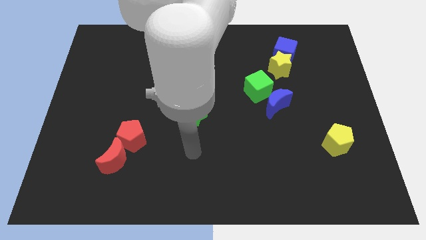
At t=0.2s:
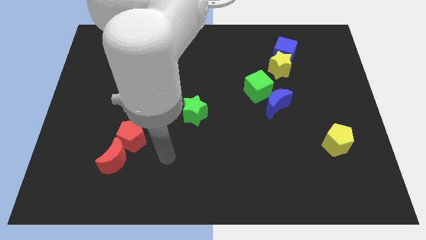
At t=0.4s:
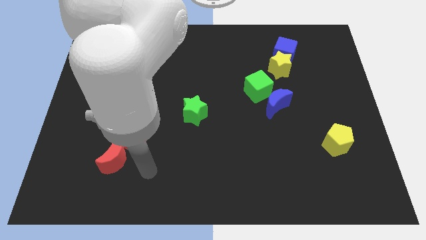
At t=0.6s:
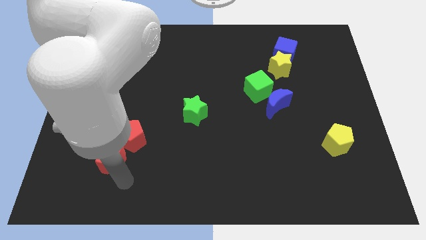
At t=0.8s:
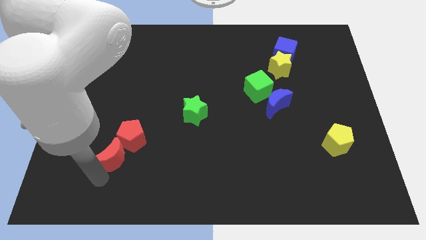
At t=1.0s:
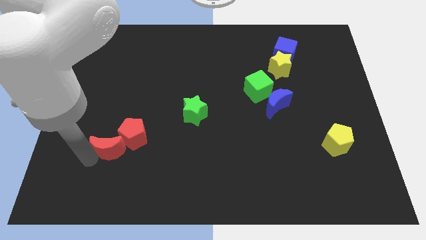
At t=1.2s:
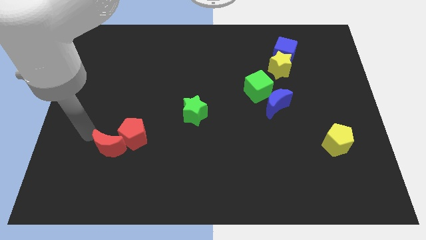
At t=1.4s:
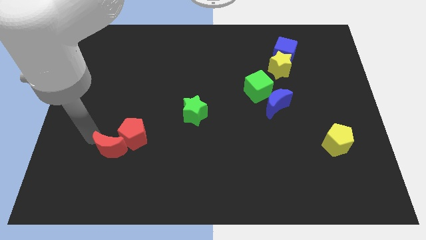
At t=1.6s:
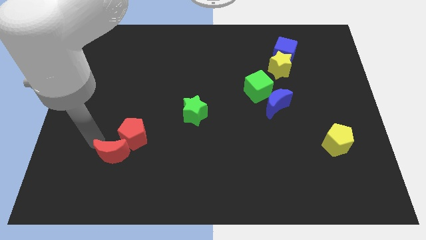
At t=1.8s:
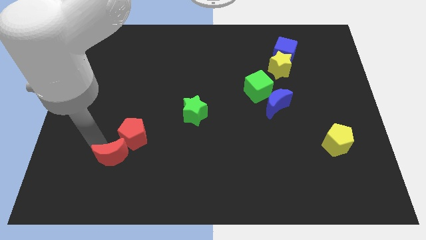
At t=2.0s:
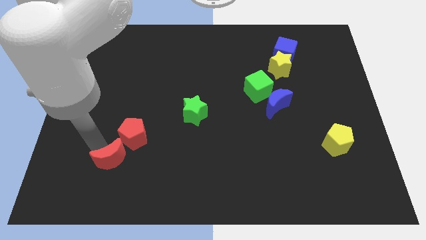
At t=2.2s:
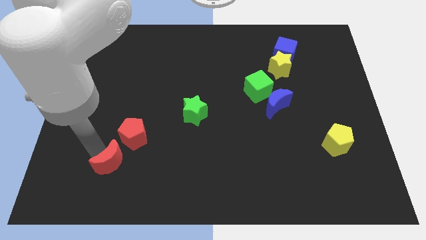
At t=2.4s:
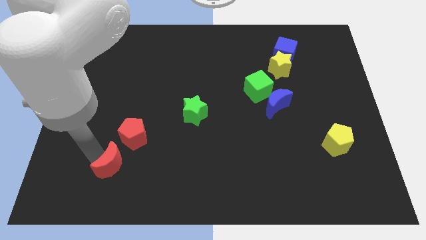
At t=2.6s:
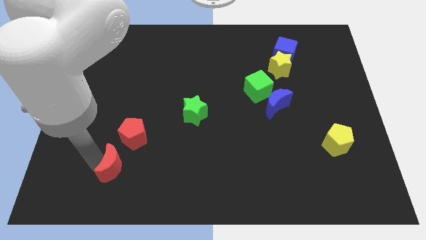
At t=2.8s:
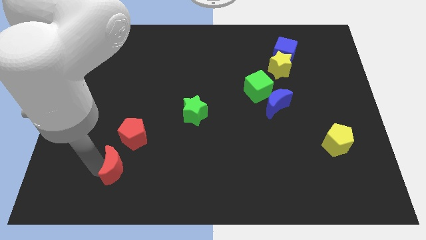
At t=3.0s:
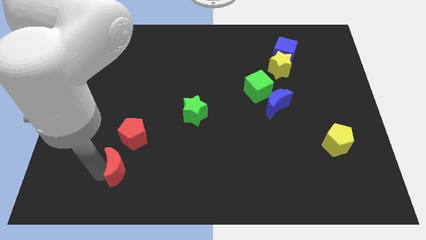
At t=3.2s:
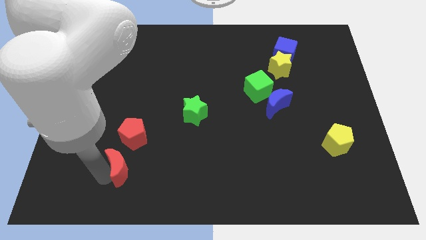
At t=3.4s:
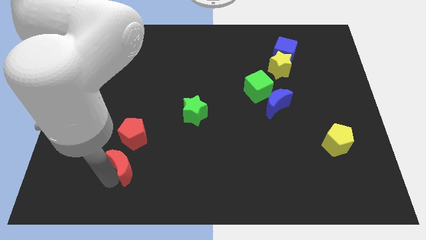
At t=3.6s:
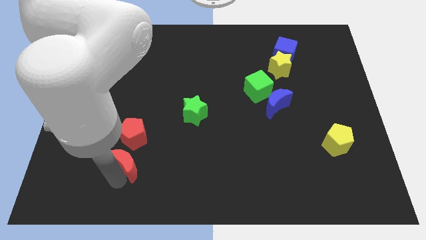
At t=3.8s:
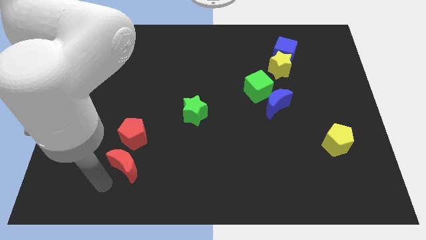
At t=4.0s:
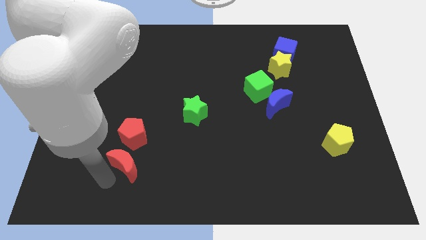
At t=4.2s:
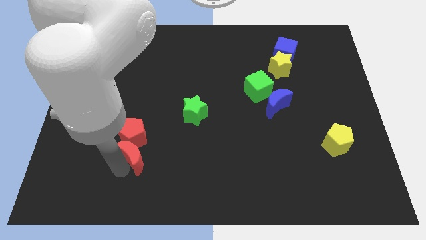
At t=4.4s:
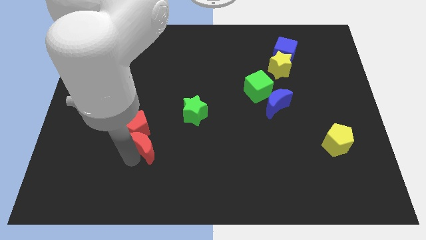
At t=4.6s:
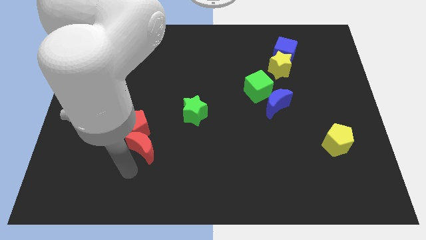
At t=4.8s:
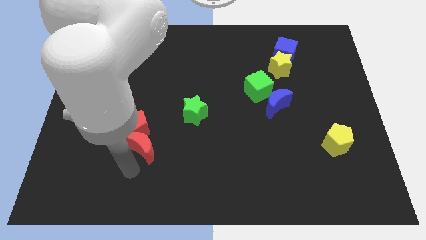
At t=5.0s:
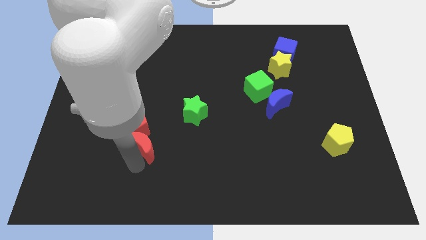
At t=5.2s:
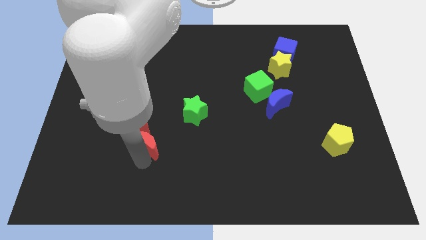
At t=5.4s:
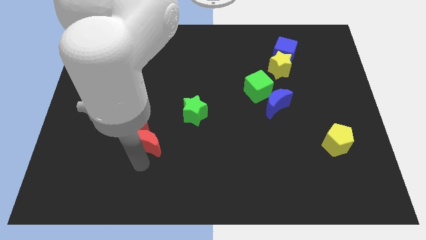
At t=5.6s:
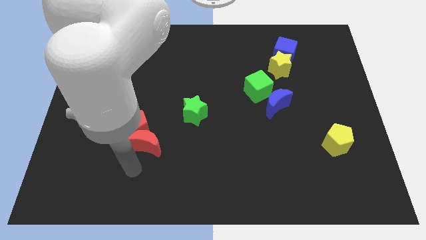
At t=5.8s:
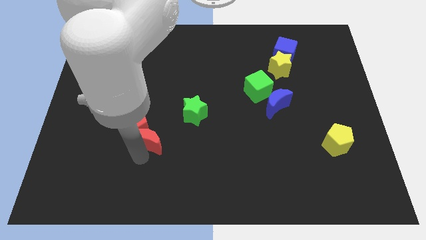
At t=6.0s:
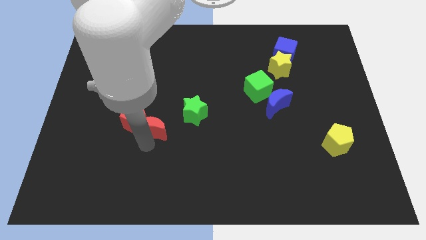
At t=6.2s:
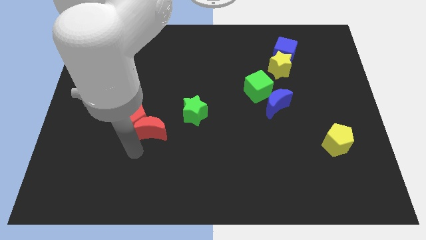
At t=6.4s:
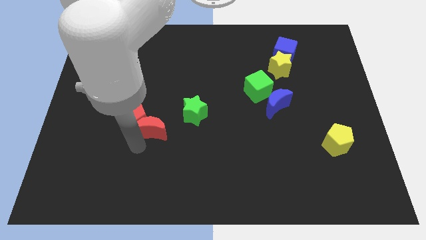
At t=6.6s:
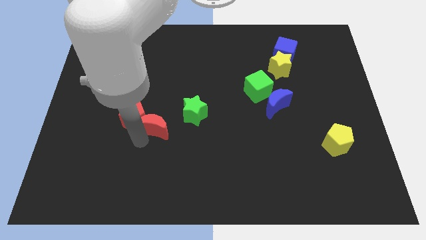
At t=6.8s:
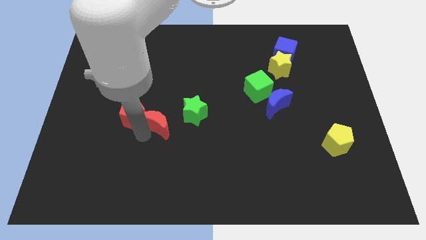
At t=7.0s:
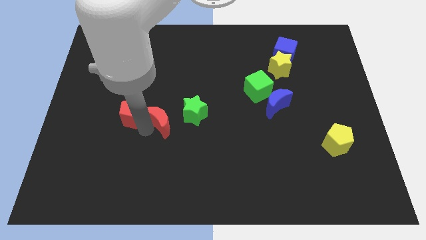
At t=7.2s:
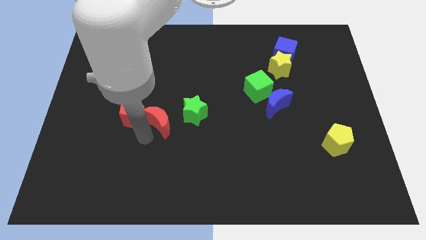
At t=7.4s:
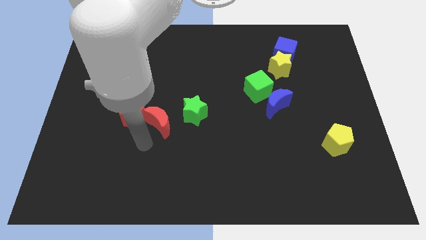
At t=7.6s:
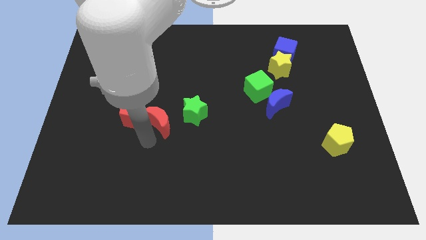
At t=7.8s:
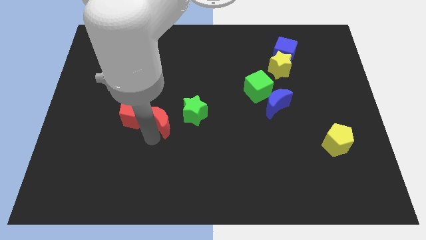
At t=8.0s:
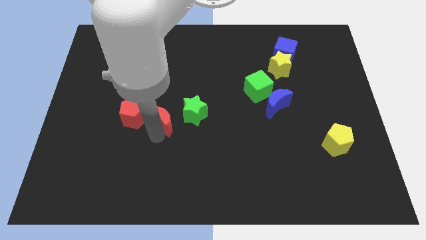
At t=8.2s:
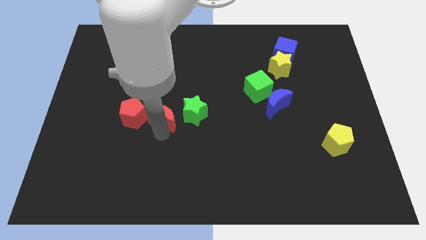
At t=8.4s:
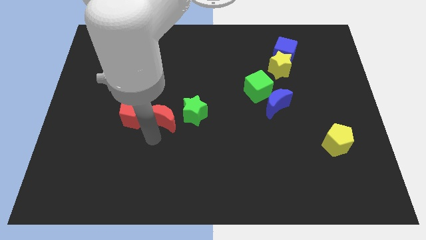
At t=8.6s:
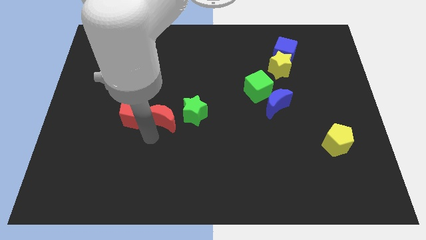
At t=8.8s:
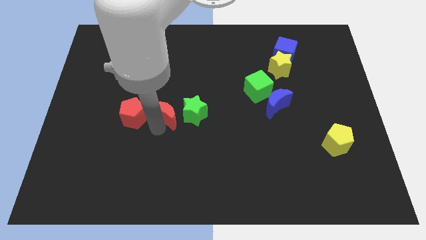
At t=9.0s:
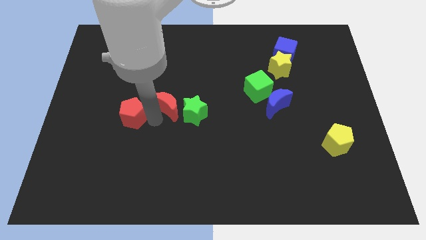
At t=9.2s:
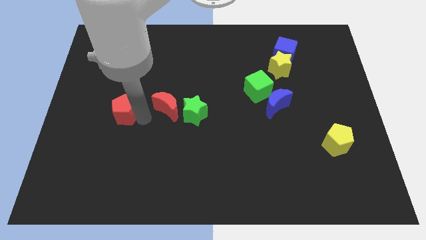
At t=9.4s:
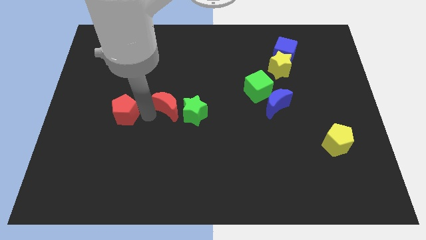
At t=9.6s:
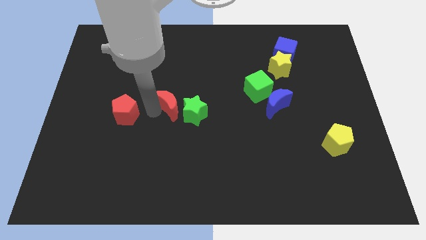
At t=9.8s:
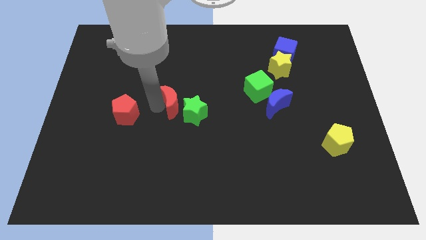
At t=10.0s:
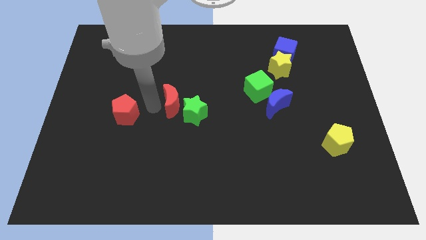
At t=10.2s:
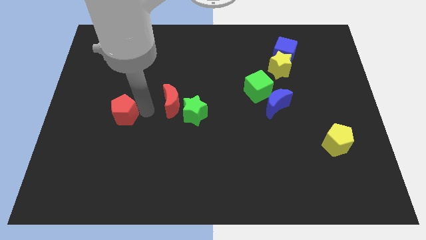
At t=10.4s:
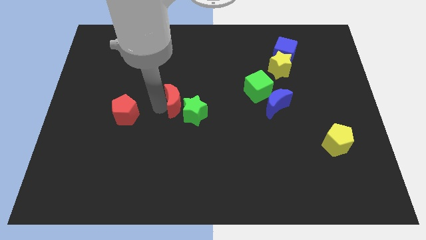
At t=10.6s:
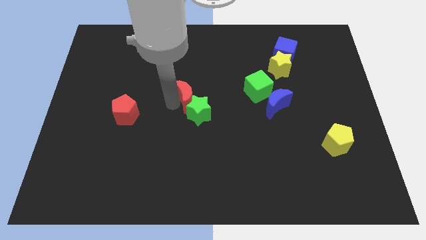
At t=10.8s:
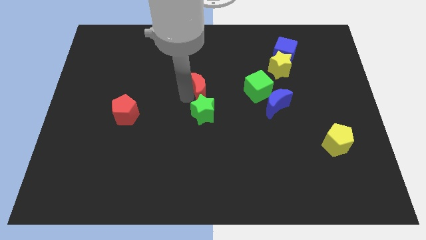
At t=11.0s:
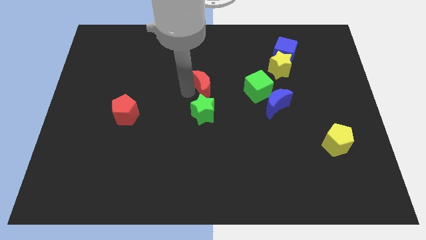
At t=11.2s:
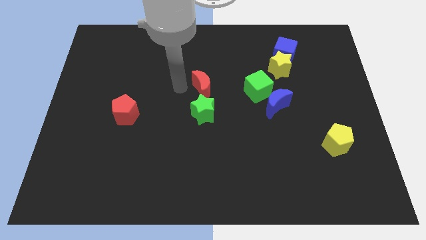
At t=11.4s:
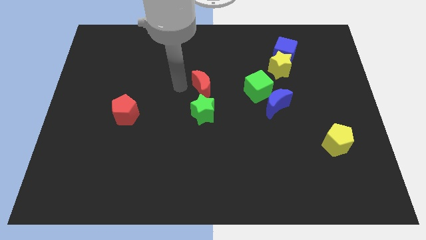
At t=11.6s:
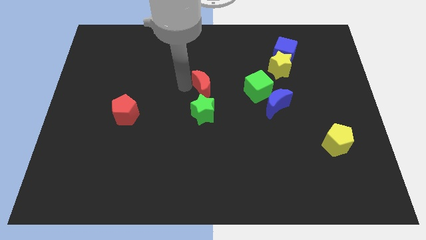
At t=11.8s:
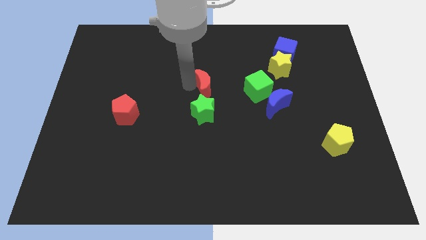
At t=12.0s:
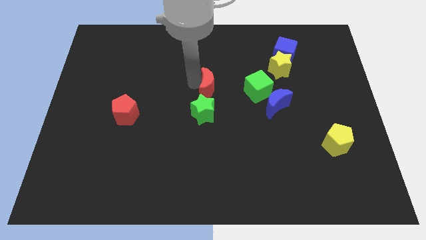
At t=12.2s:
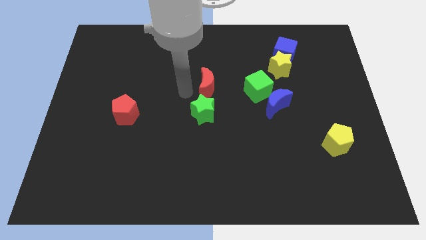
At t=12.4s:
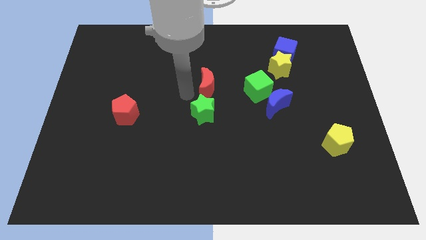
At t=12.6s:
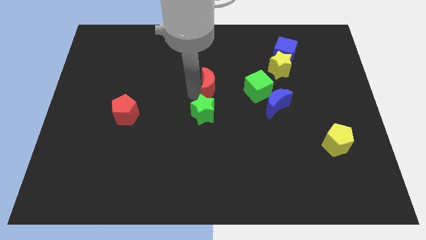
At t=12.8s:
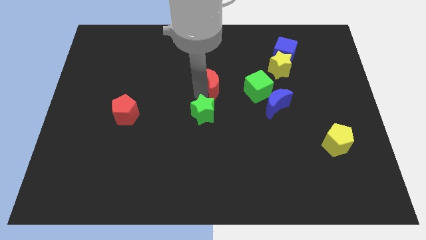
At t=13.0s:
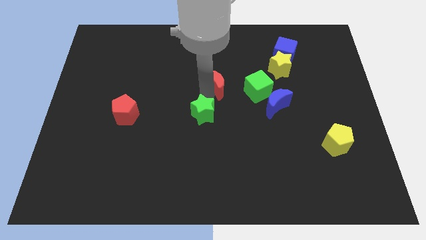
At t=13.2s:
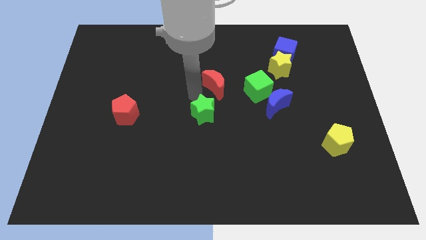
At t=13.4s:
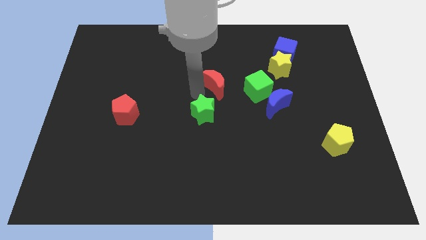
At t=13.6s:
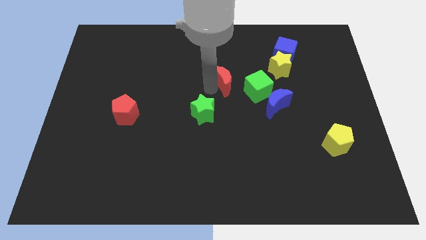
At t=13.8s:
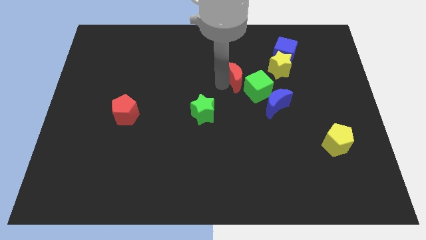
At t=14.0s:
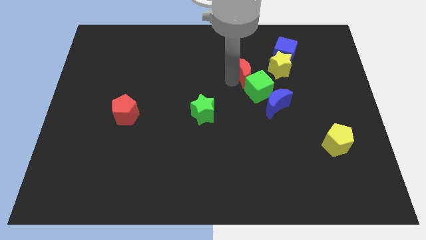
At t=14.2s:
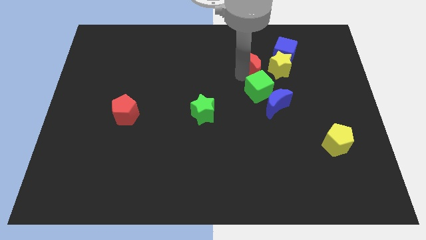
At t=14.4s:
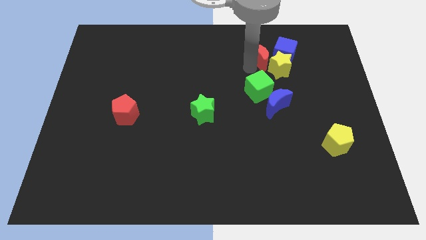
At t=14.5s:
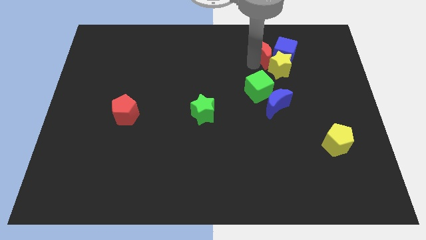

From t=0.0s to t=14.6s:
slide the red moon close to the blue cube

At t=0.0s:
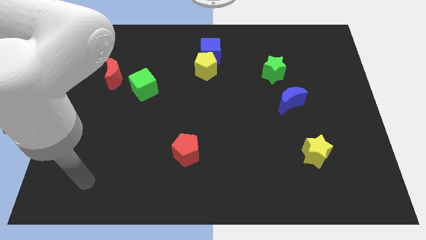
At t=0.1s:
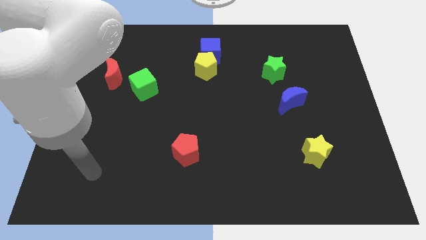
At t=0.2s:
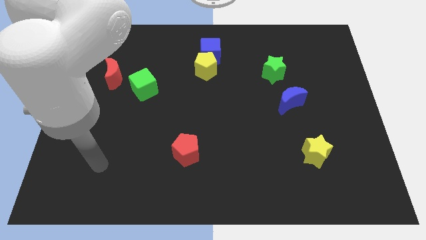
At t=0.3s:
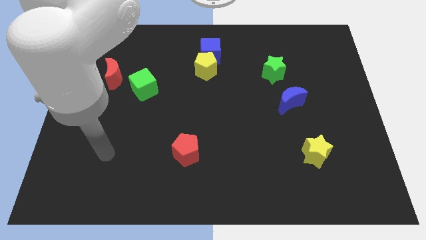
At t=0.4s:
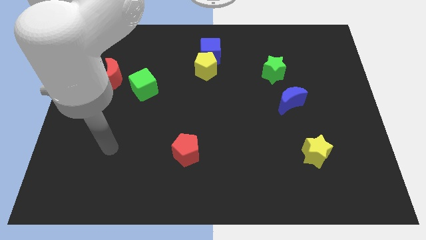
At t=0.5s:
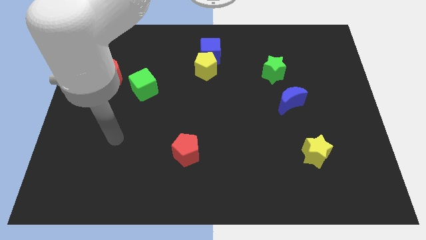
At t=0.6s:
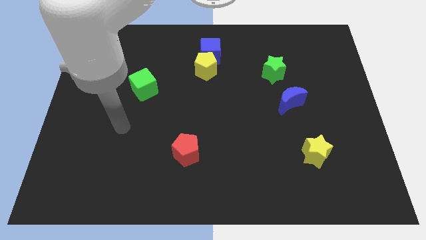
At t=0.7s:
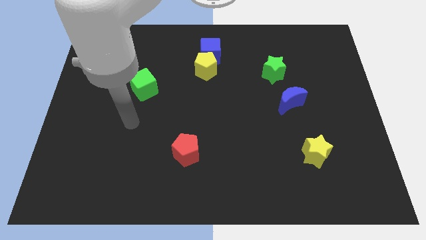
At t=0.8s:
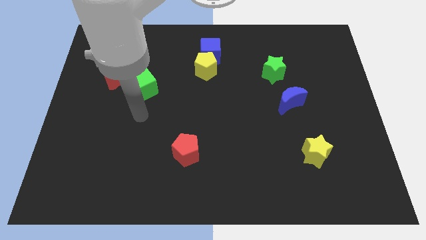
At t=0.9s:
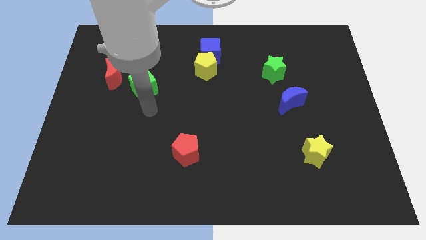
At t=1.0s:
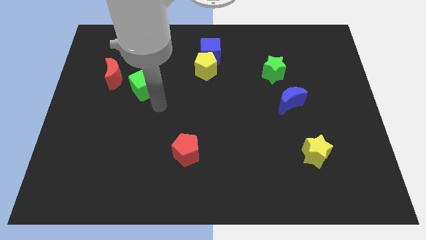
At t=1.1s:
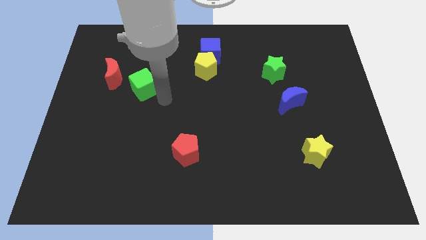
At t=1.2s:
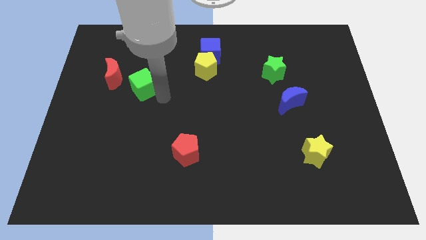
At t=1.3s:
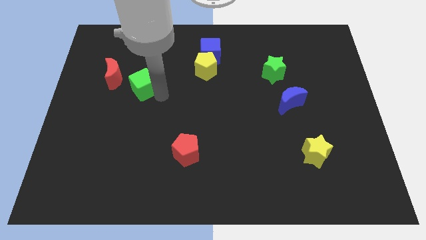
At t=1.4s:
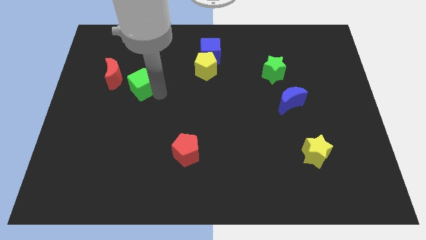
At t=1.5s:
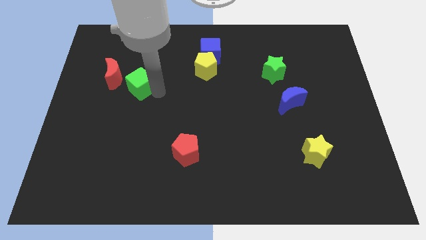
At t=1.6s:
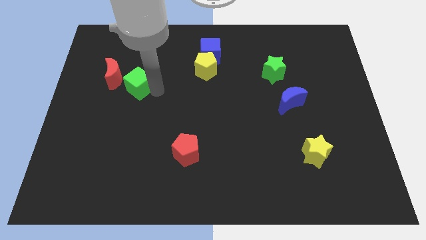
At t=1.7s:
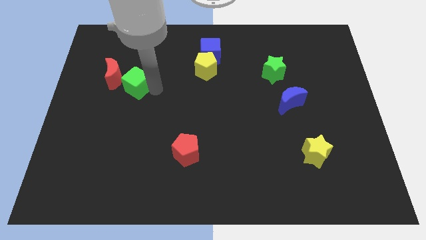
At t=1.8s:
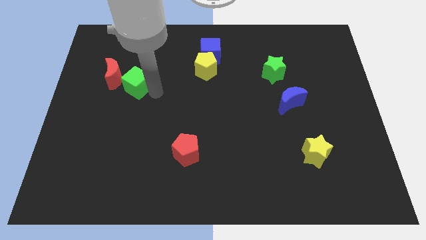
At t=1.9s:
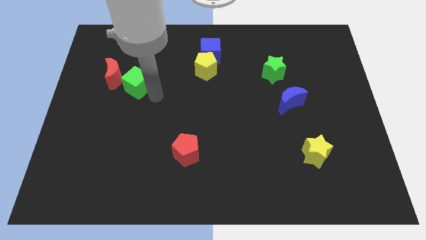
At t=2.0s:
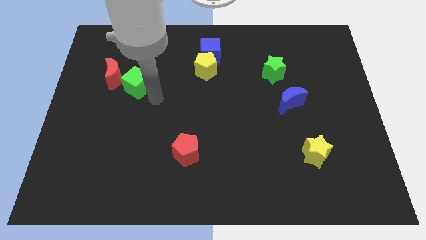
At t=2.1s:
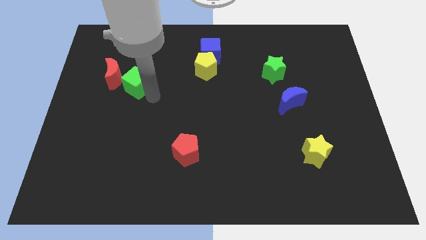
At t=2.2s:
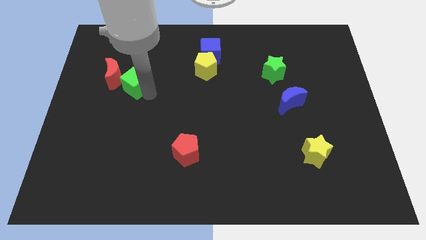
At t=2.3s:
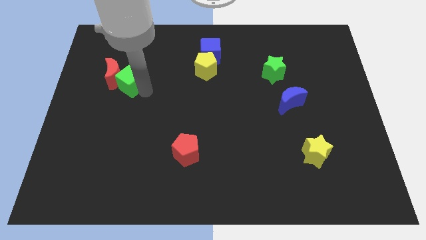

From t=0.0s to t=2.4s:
put the green cube towards the red moon
